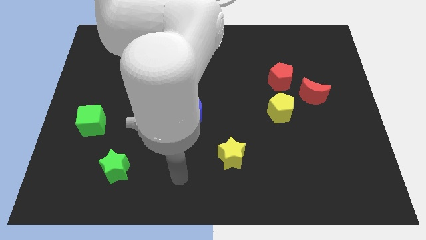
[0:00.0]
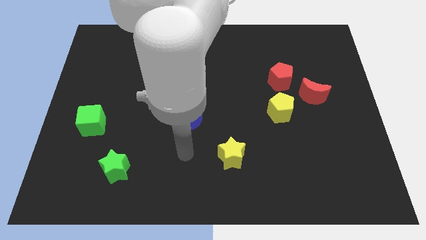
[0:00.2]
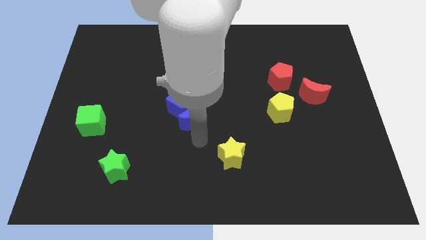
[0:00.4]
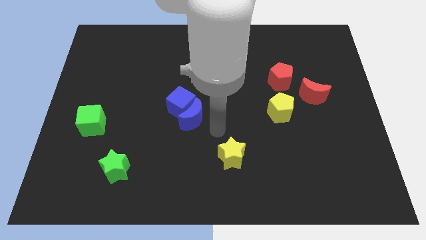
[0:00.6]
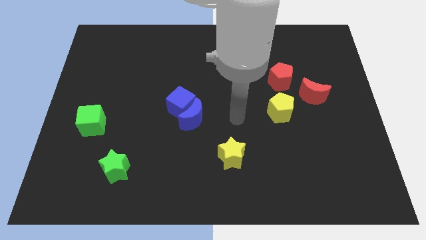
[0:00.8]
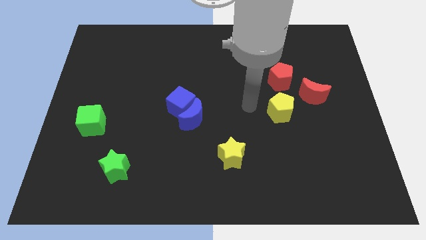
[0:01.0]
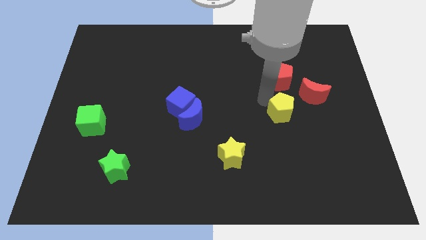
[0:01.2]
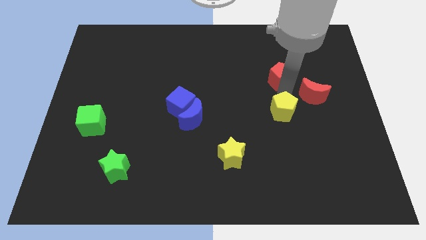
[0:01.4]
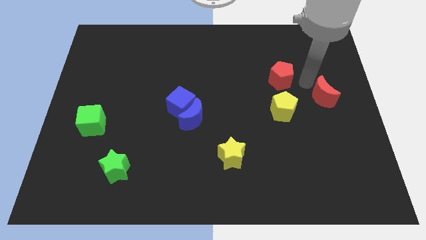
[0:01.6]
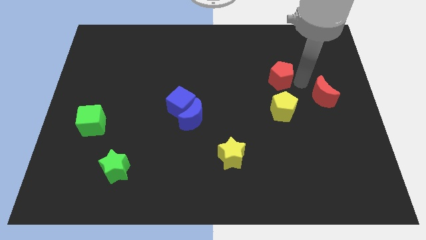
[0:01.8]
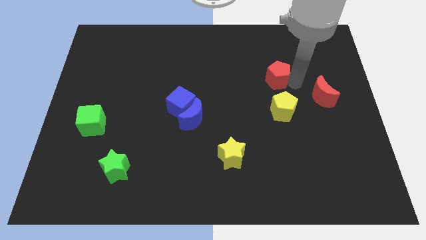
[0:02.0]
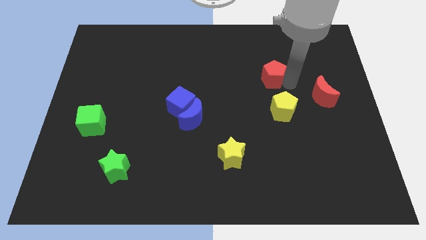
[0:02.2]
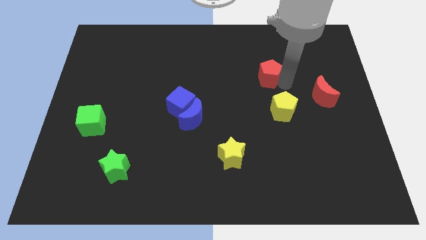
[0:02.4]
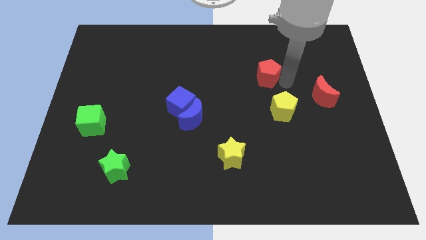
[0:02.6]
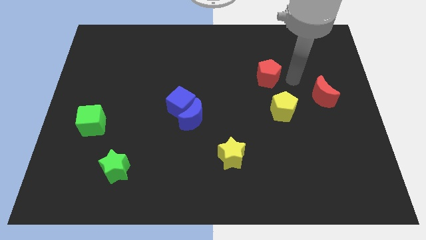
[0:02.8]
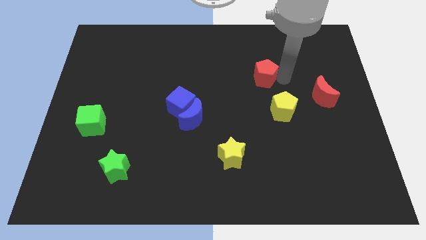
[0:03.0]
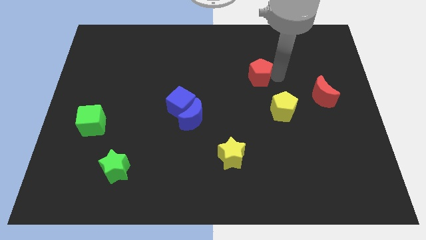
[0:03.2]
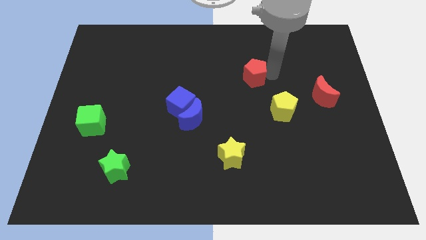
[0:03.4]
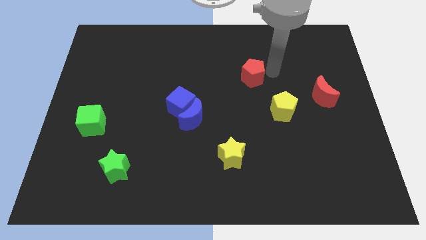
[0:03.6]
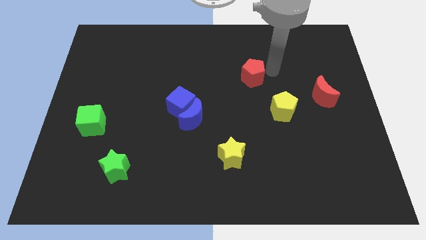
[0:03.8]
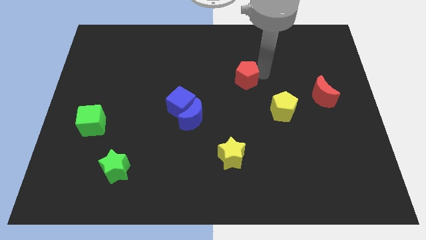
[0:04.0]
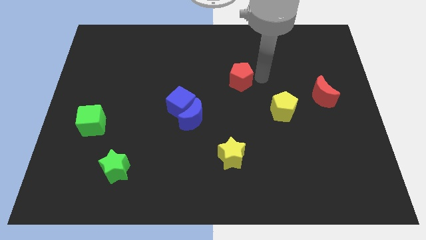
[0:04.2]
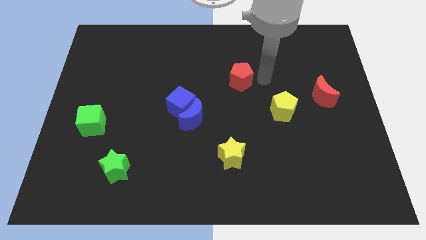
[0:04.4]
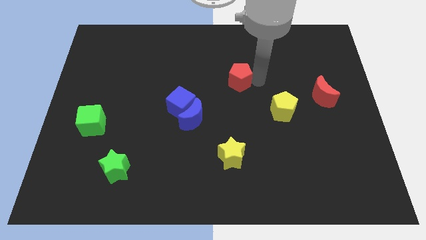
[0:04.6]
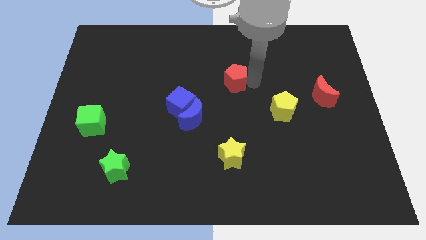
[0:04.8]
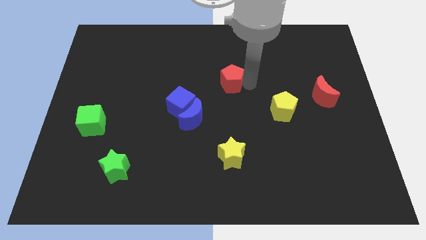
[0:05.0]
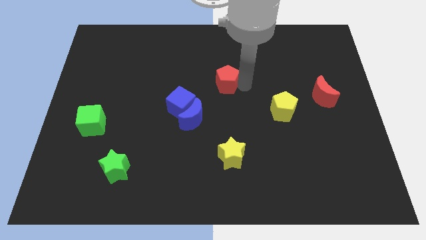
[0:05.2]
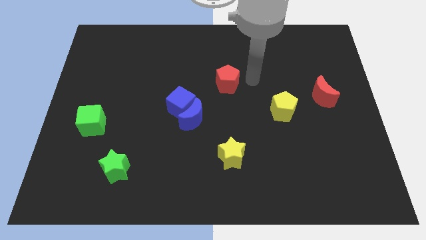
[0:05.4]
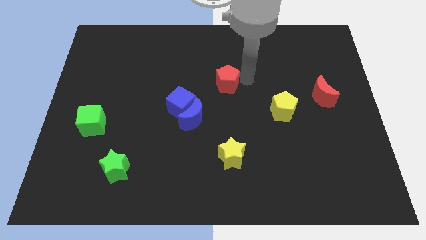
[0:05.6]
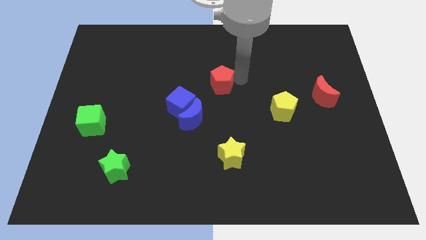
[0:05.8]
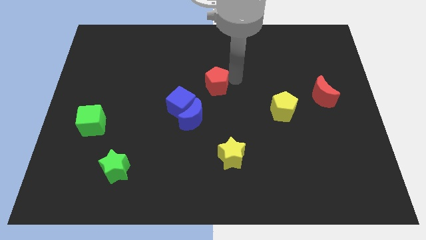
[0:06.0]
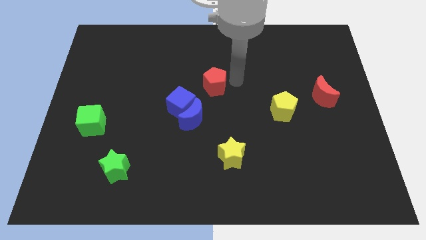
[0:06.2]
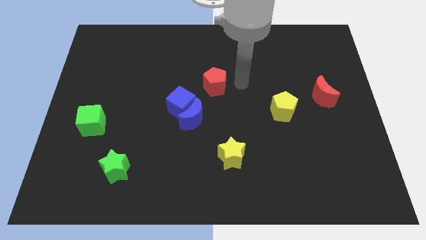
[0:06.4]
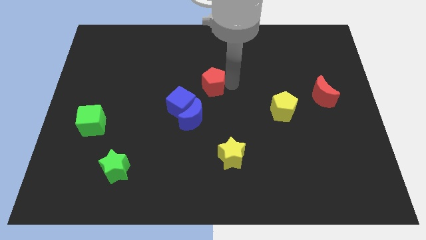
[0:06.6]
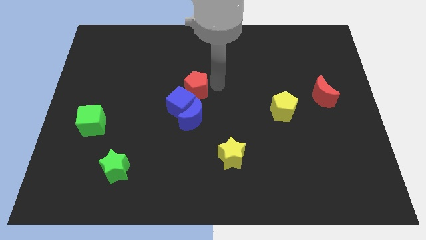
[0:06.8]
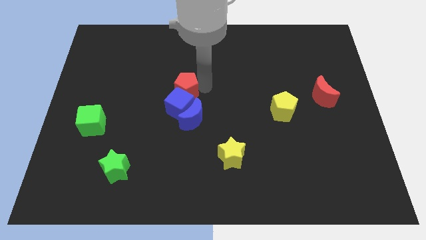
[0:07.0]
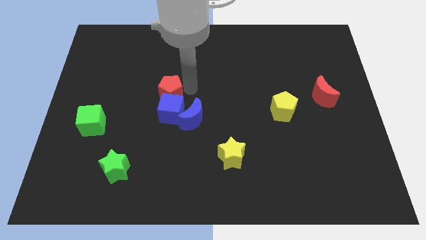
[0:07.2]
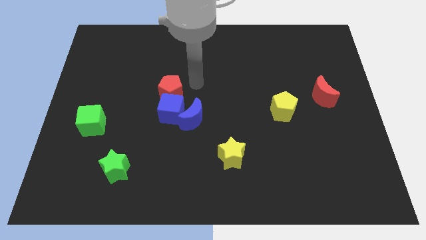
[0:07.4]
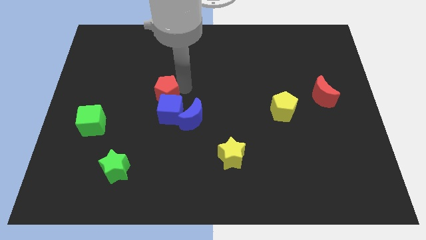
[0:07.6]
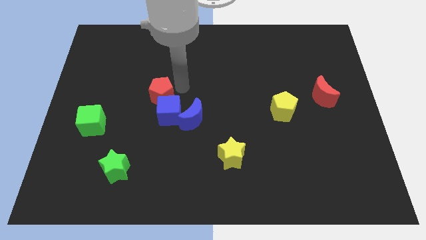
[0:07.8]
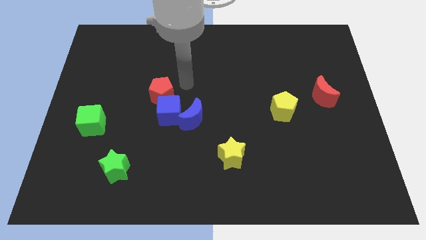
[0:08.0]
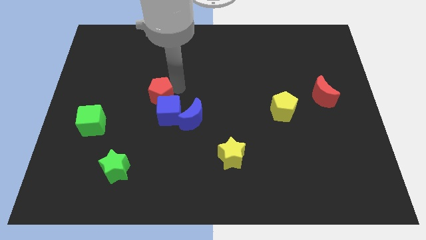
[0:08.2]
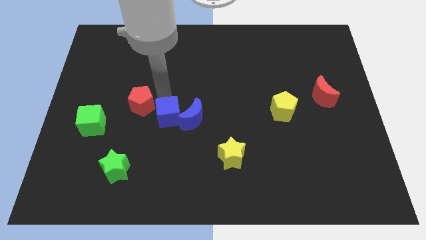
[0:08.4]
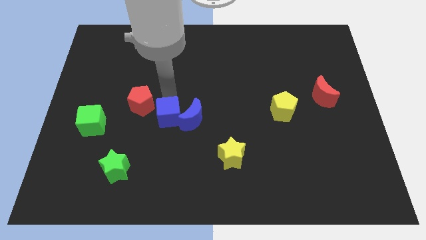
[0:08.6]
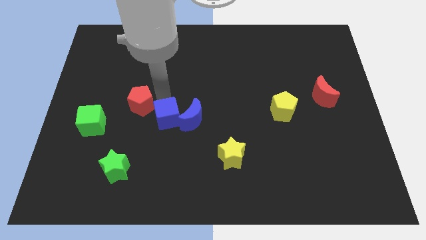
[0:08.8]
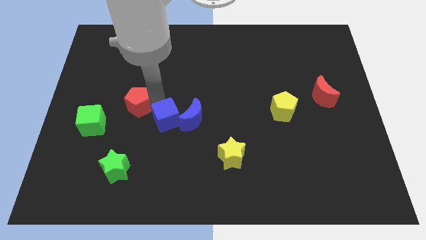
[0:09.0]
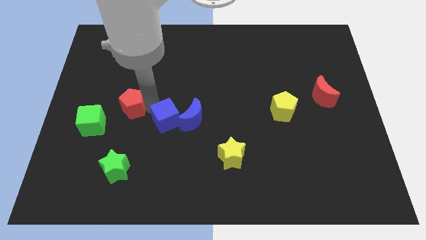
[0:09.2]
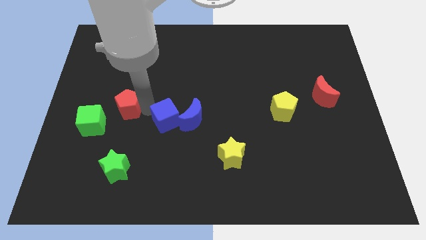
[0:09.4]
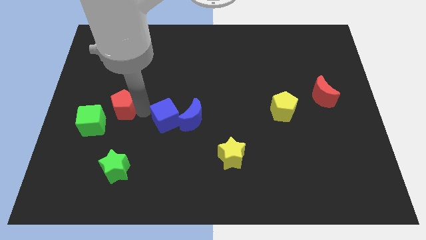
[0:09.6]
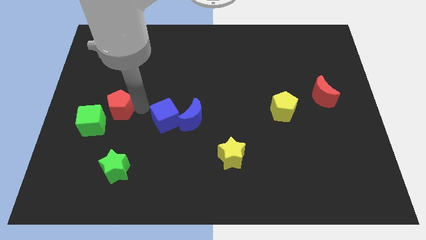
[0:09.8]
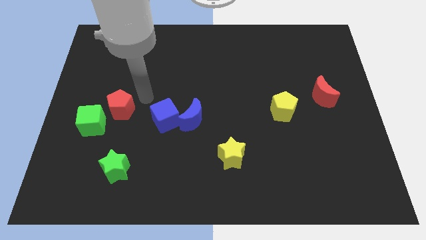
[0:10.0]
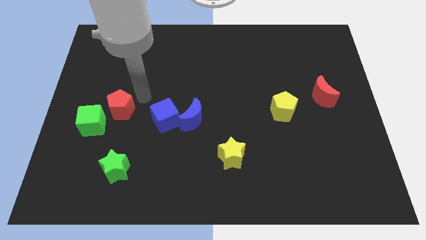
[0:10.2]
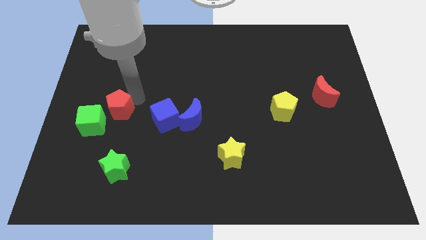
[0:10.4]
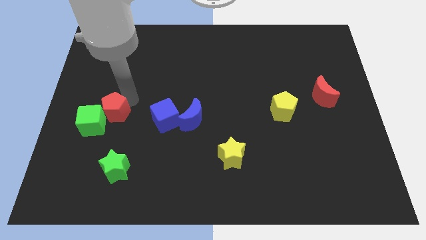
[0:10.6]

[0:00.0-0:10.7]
push the red pentagon towards the green cube

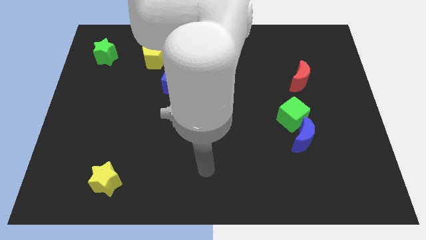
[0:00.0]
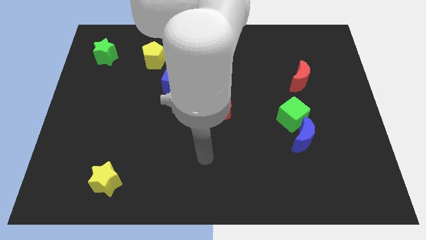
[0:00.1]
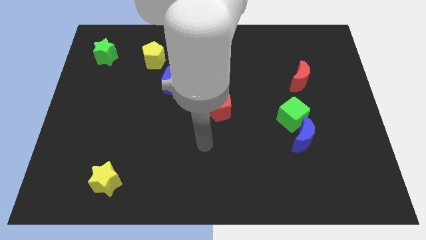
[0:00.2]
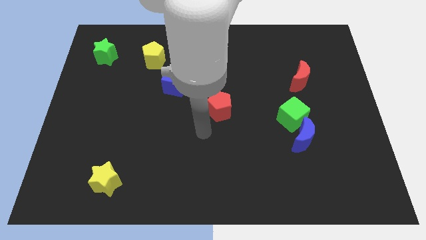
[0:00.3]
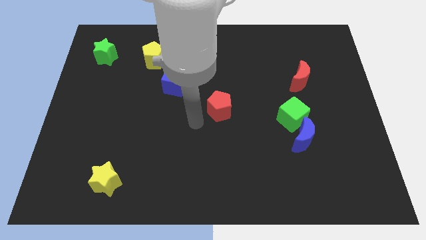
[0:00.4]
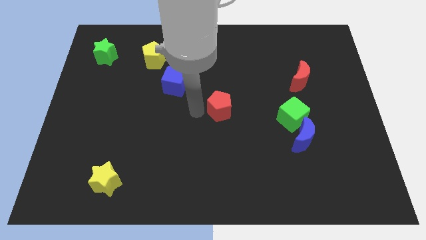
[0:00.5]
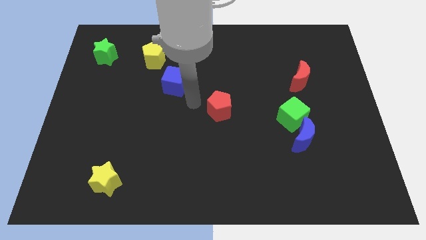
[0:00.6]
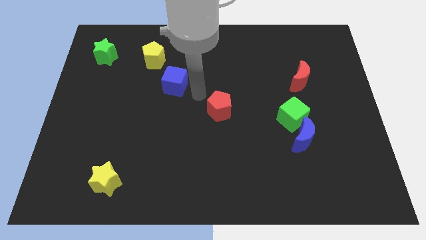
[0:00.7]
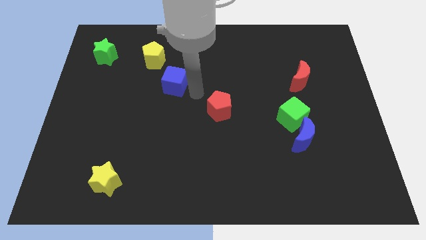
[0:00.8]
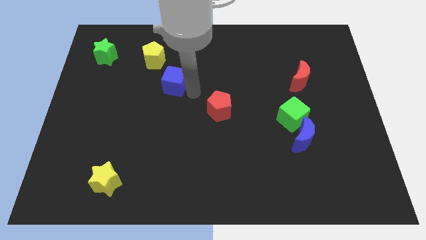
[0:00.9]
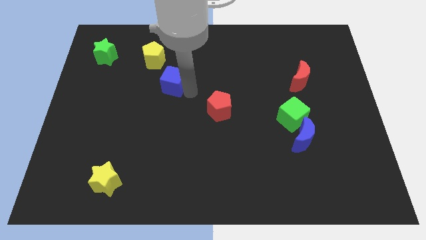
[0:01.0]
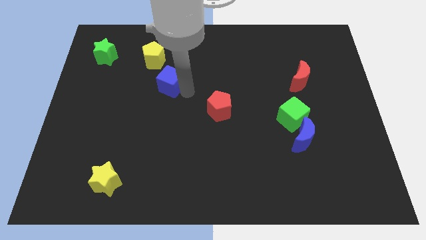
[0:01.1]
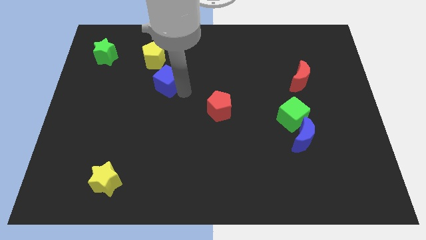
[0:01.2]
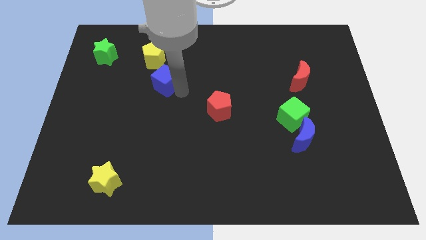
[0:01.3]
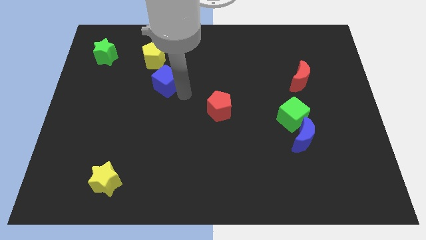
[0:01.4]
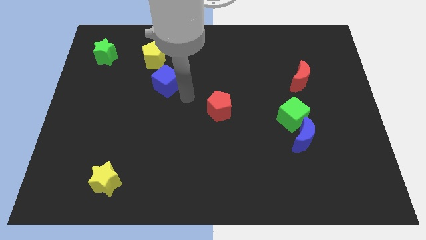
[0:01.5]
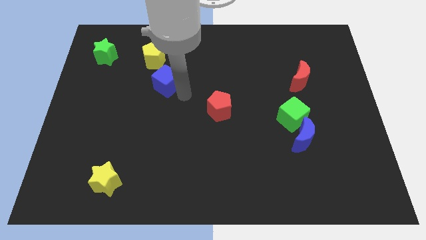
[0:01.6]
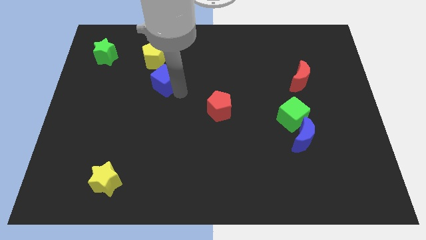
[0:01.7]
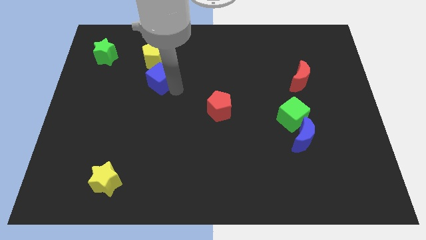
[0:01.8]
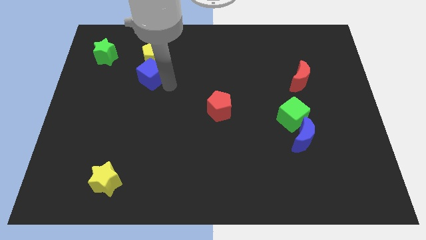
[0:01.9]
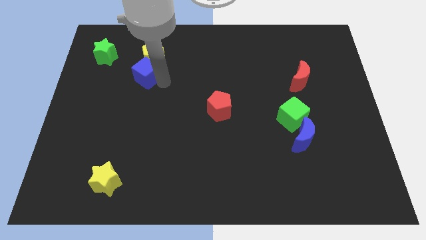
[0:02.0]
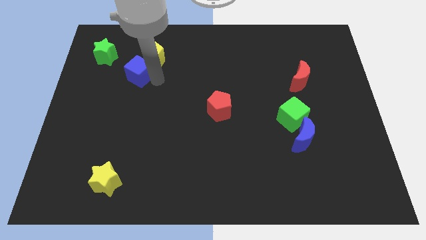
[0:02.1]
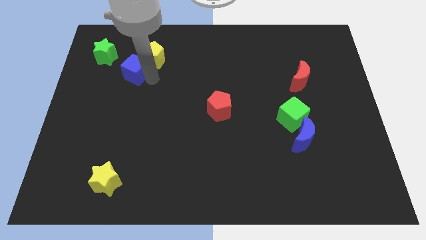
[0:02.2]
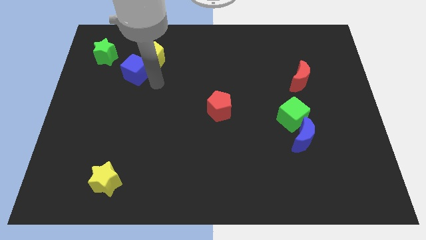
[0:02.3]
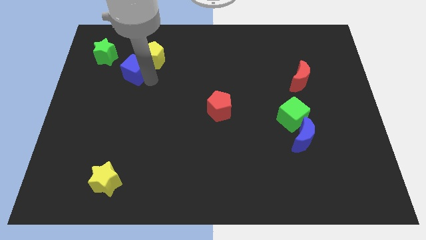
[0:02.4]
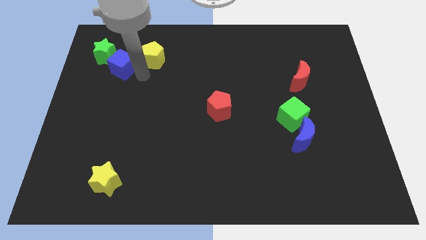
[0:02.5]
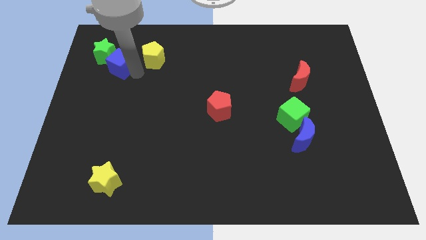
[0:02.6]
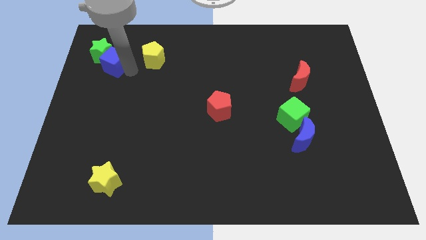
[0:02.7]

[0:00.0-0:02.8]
slide the blue cube to the green star
